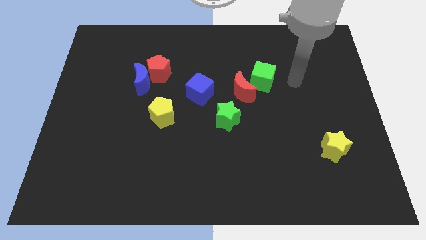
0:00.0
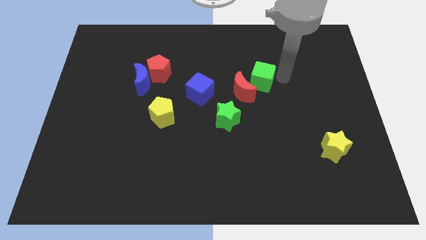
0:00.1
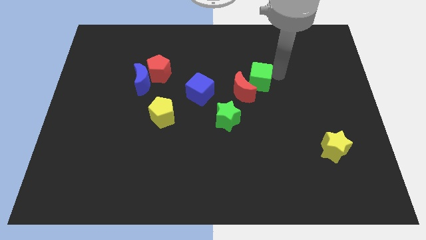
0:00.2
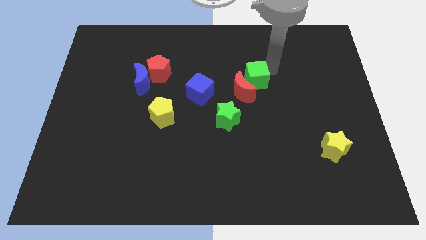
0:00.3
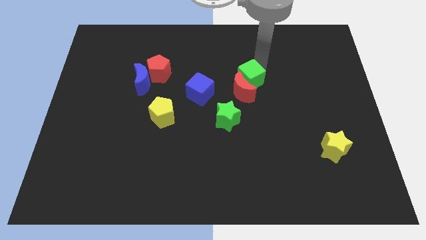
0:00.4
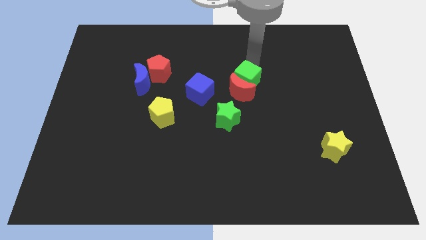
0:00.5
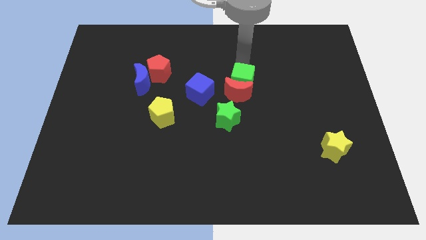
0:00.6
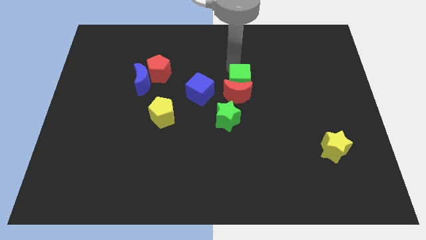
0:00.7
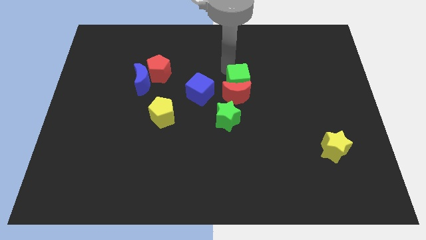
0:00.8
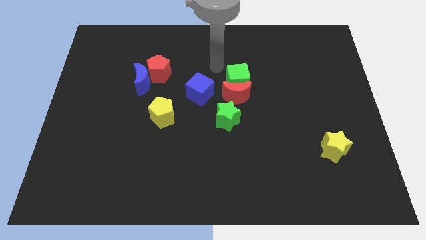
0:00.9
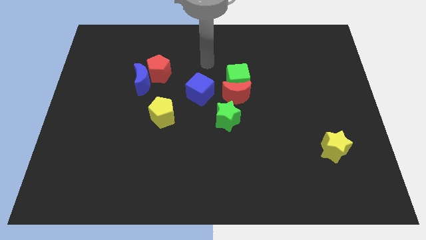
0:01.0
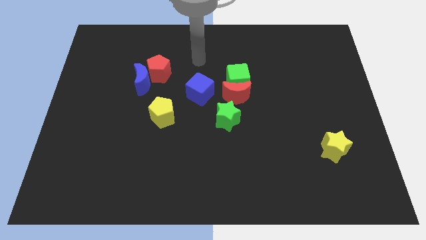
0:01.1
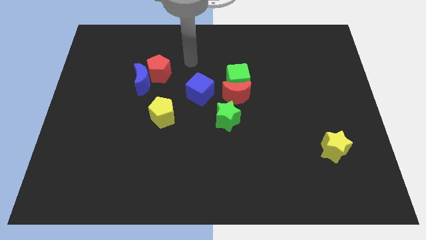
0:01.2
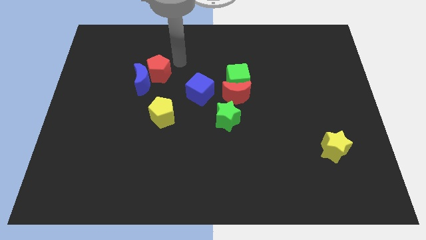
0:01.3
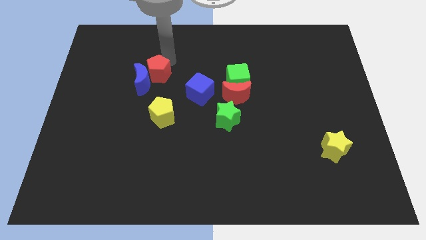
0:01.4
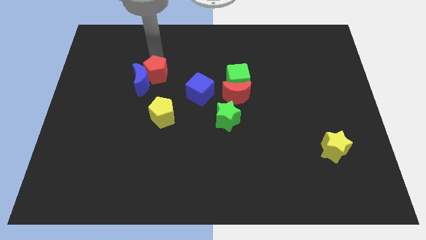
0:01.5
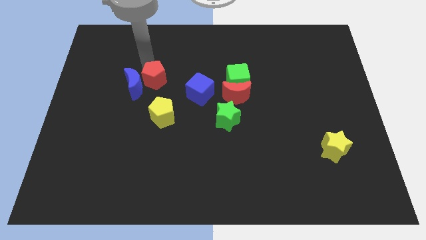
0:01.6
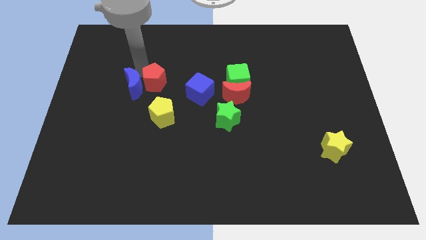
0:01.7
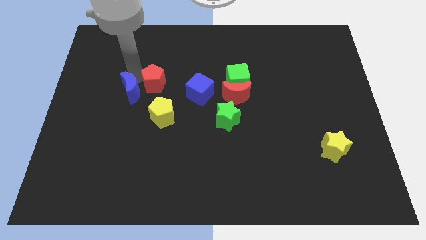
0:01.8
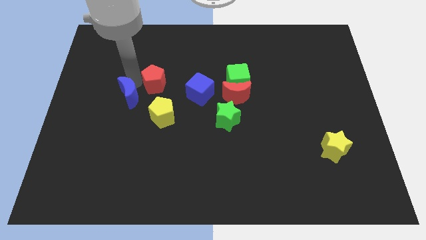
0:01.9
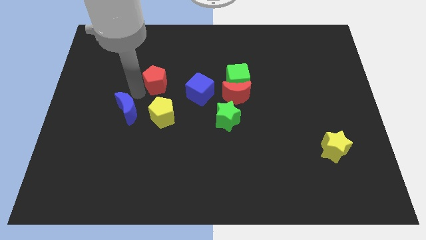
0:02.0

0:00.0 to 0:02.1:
pull the red pentagon apart from the blue moon

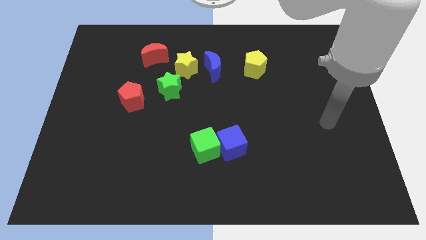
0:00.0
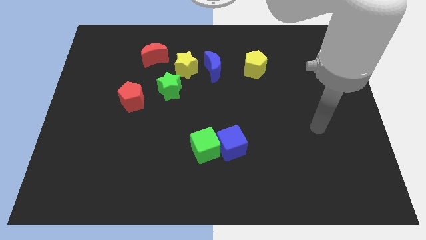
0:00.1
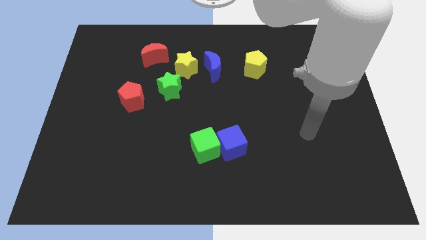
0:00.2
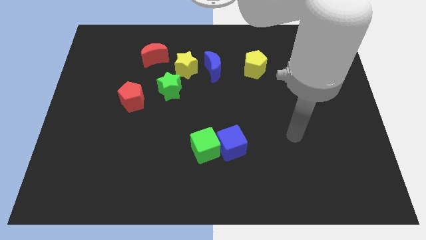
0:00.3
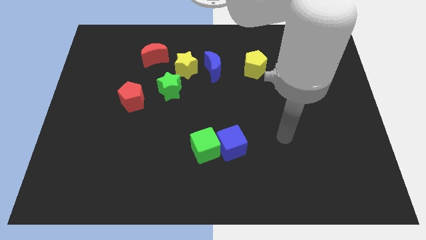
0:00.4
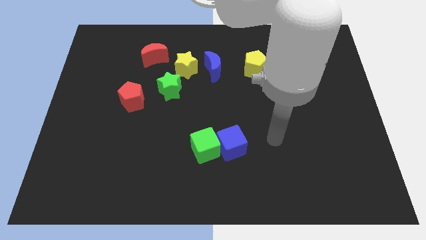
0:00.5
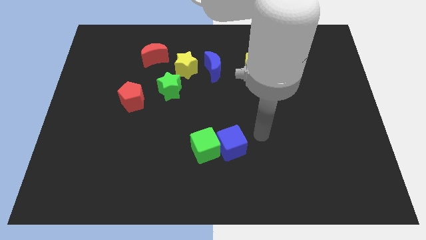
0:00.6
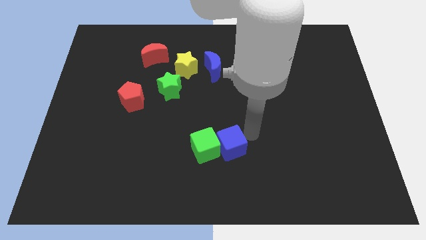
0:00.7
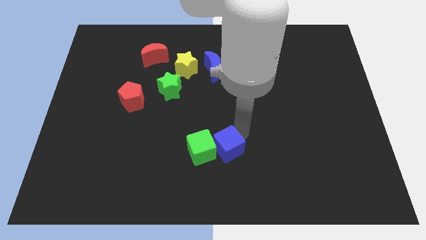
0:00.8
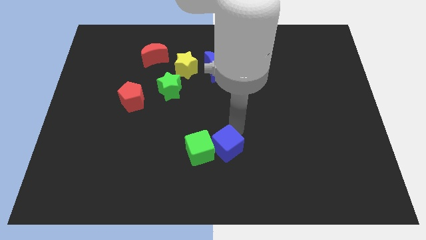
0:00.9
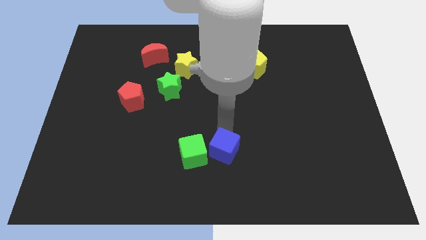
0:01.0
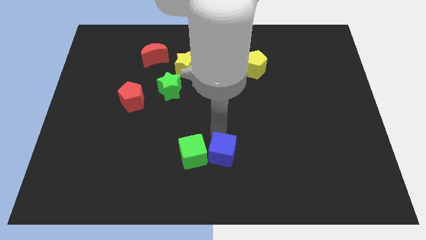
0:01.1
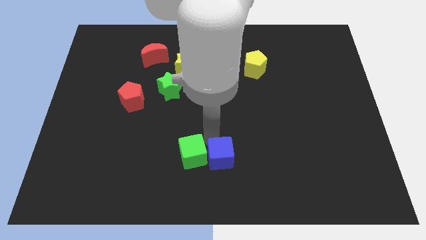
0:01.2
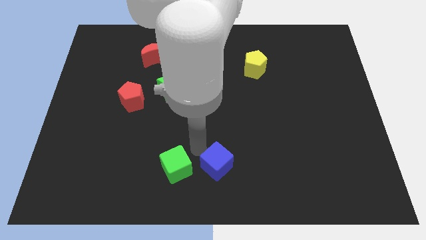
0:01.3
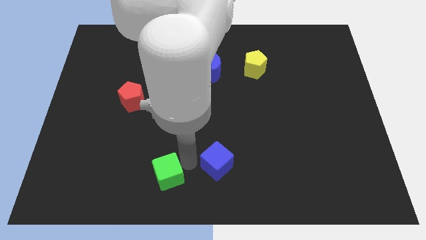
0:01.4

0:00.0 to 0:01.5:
pull the blue cube apart from the green cube

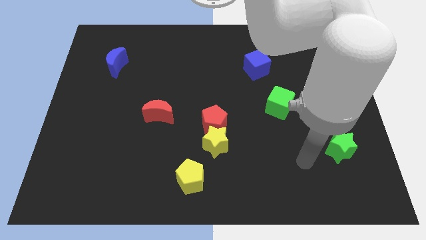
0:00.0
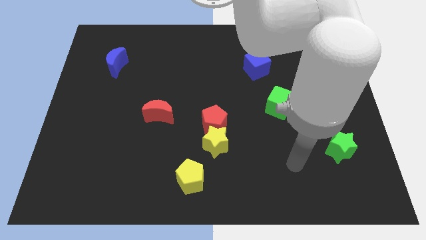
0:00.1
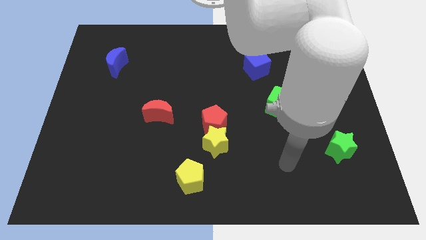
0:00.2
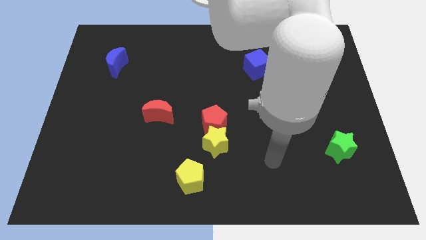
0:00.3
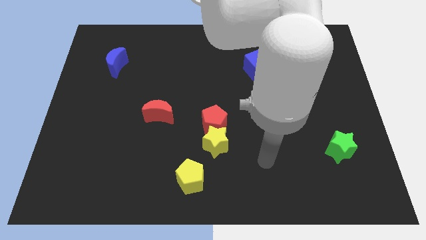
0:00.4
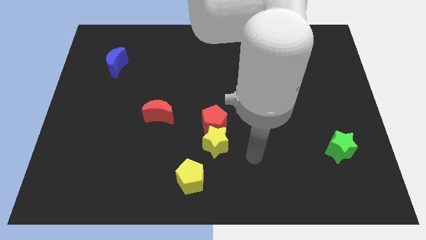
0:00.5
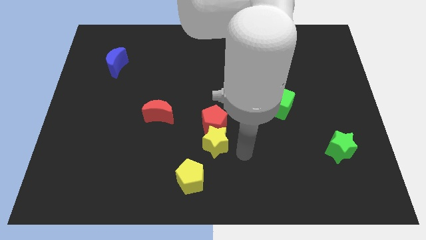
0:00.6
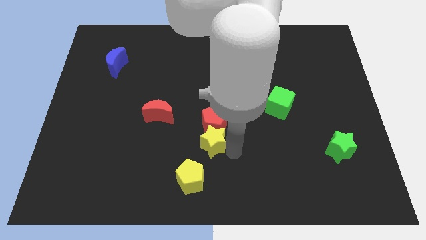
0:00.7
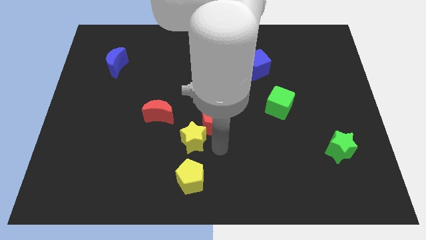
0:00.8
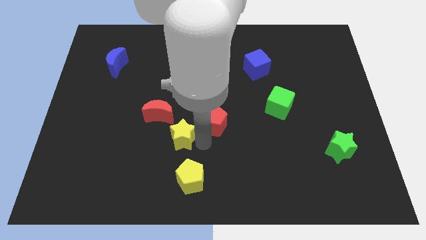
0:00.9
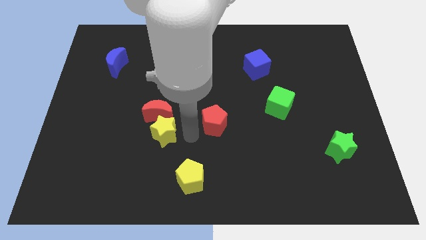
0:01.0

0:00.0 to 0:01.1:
move the red pentagon away from the yellow star

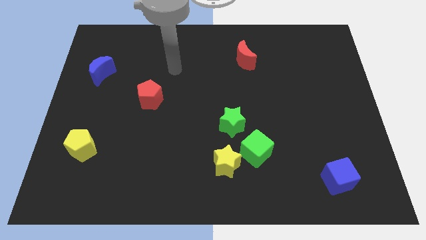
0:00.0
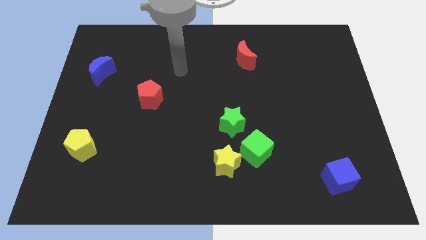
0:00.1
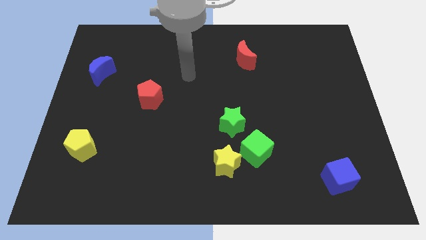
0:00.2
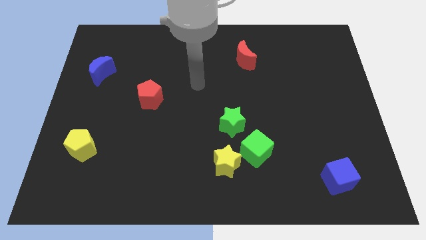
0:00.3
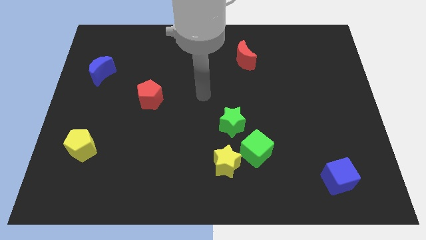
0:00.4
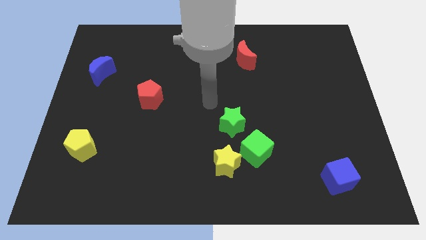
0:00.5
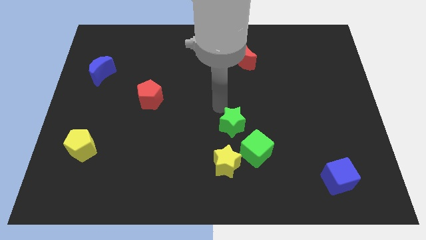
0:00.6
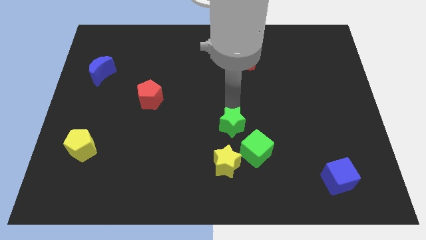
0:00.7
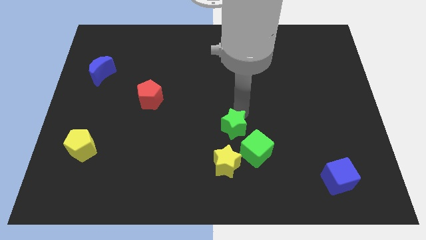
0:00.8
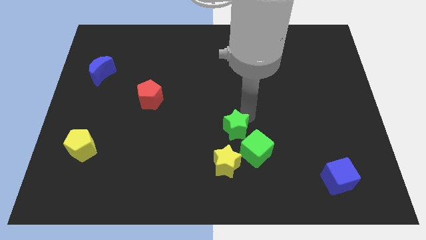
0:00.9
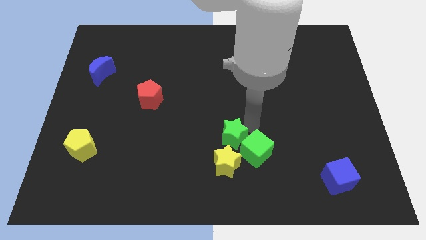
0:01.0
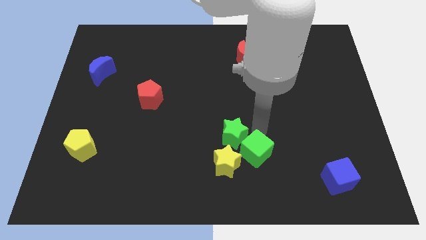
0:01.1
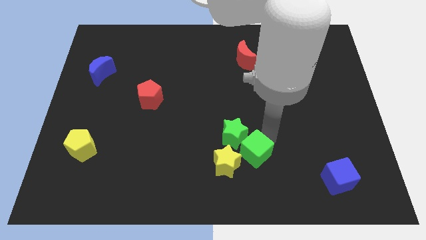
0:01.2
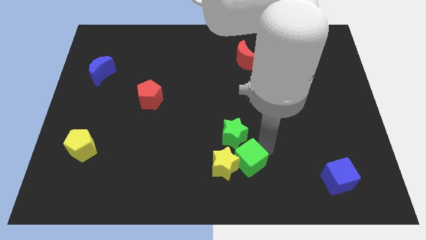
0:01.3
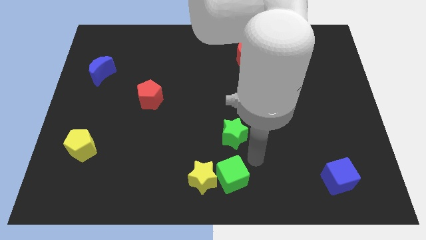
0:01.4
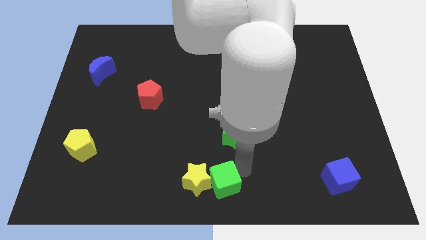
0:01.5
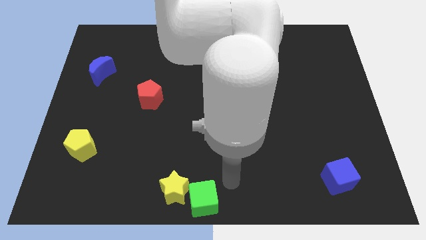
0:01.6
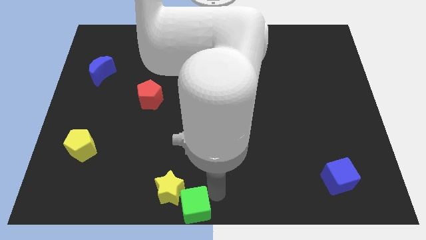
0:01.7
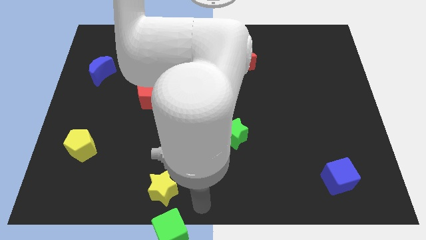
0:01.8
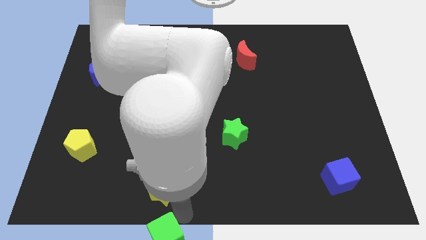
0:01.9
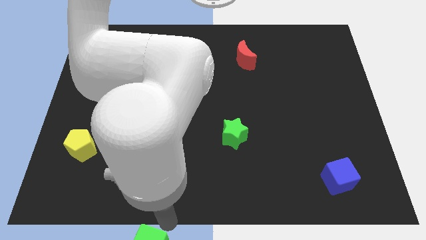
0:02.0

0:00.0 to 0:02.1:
move the yellow star away from the green cube

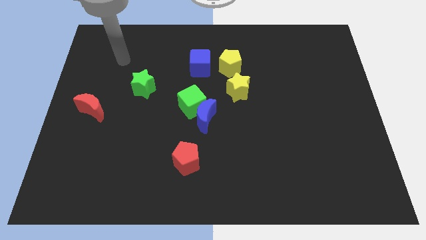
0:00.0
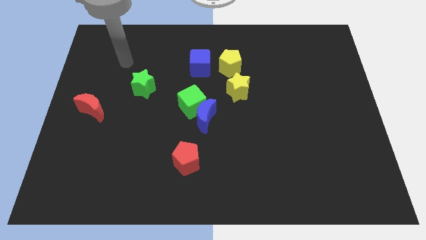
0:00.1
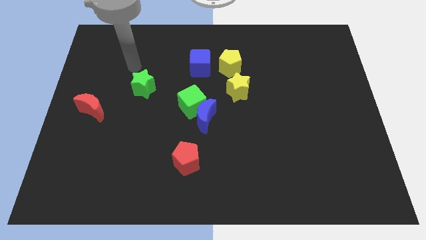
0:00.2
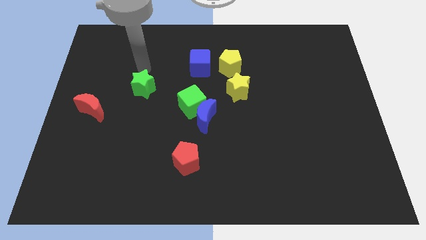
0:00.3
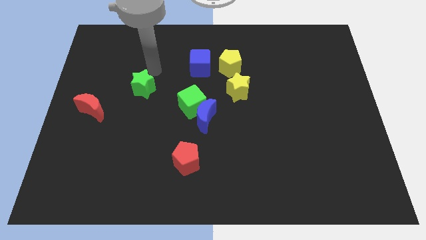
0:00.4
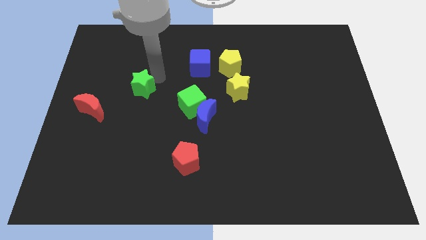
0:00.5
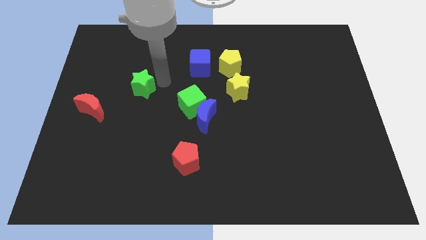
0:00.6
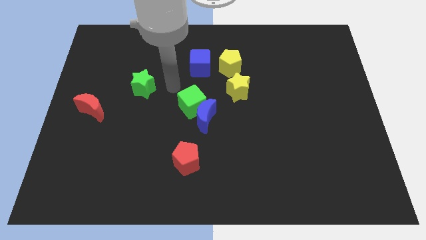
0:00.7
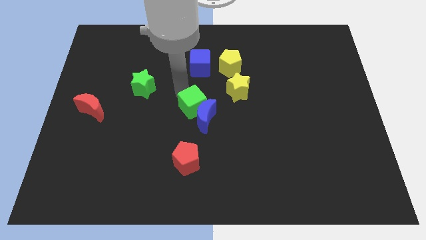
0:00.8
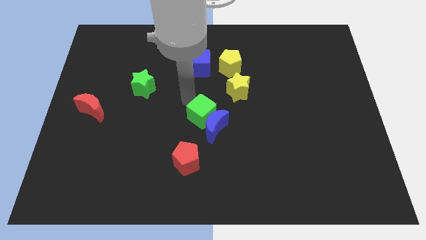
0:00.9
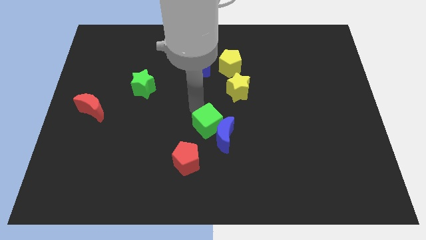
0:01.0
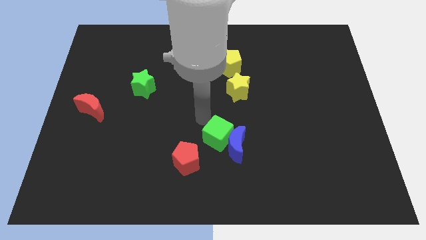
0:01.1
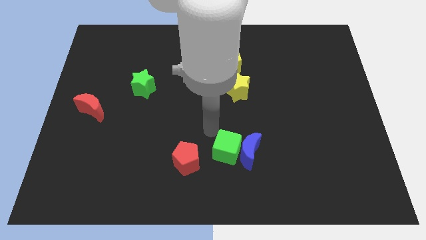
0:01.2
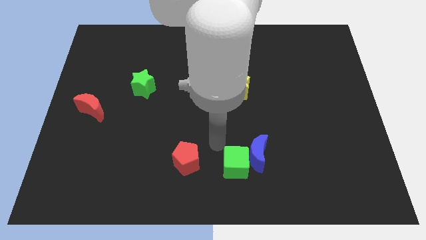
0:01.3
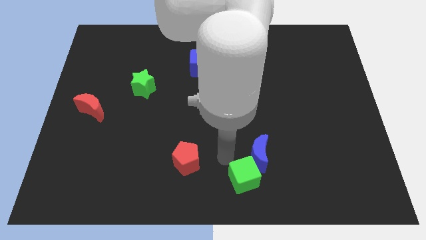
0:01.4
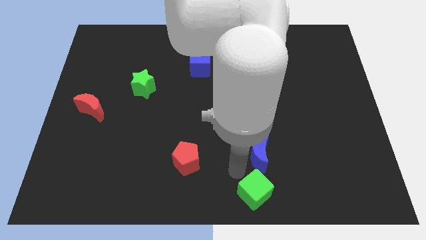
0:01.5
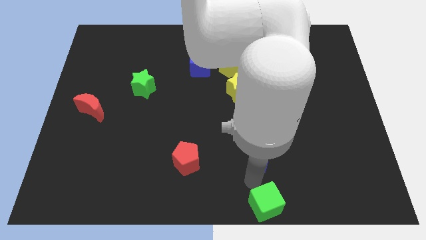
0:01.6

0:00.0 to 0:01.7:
separate the blue moon from the green cube

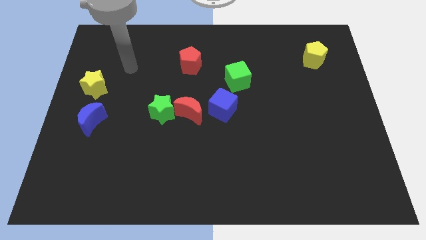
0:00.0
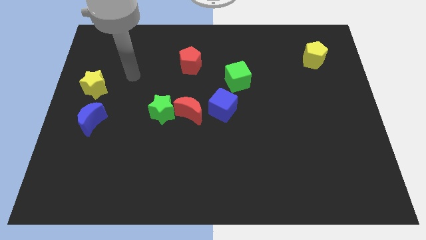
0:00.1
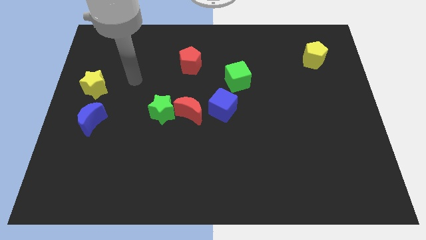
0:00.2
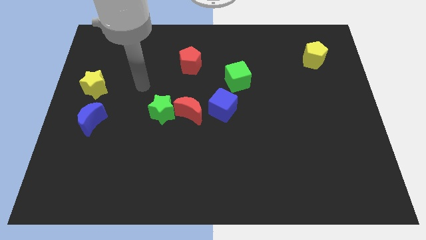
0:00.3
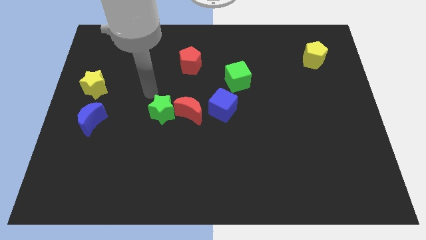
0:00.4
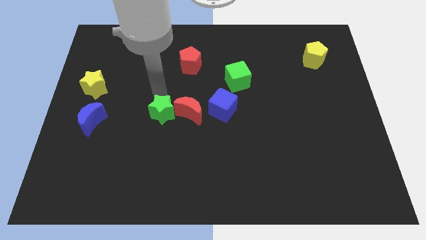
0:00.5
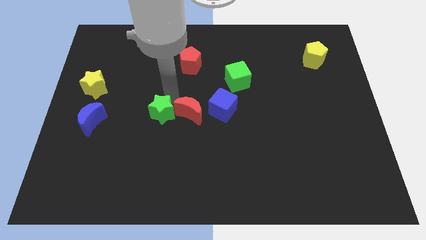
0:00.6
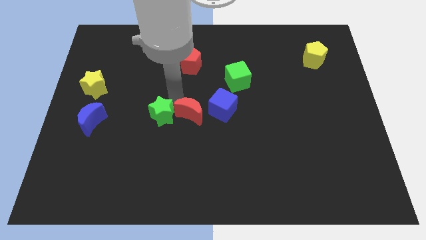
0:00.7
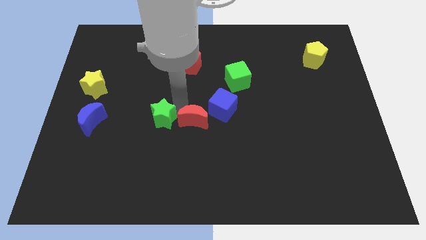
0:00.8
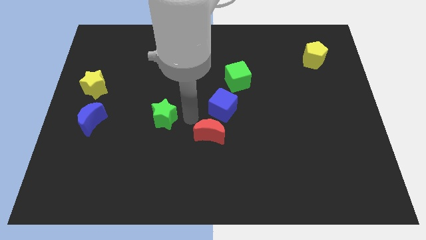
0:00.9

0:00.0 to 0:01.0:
move the green star away from the red moon
